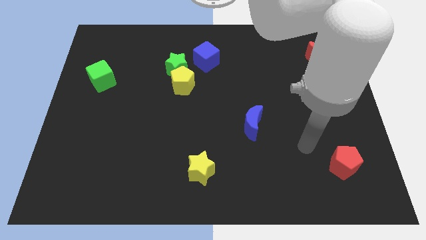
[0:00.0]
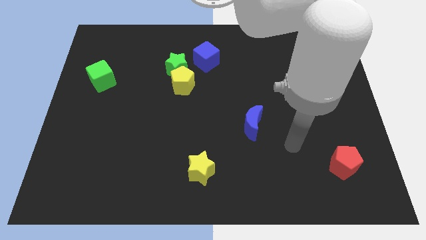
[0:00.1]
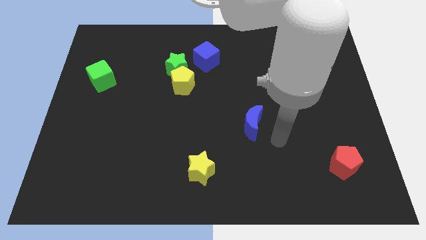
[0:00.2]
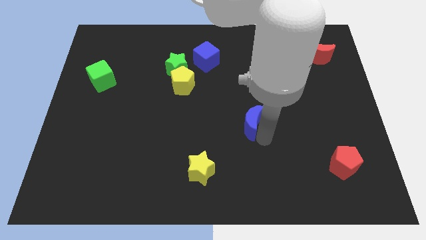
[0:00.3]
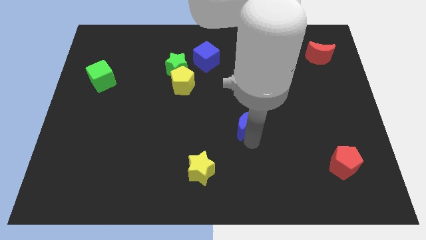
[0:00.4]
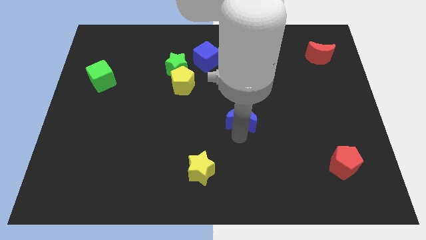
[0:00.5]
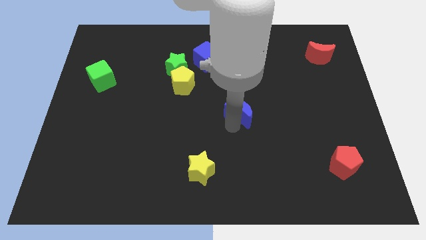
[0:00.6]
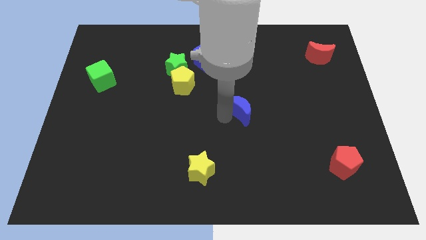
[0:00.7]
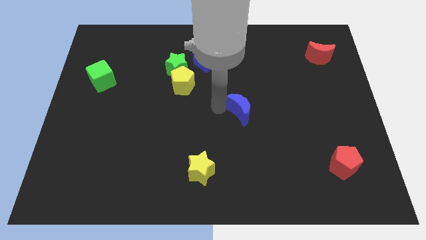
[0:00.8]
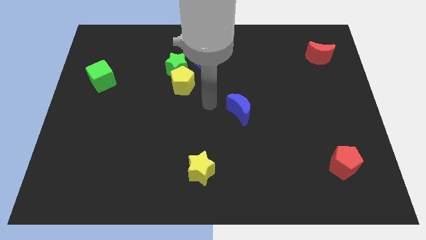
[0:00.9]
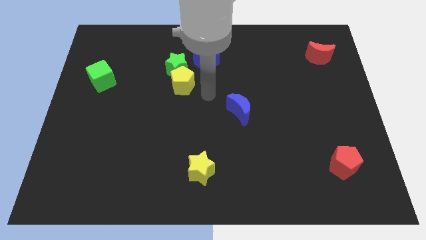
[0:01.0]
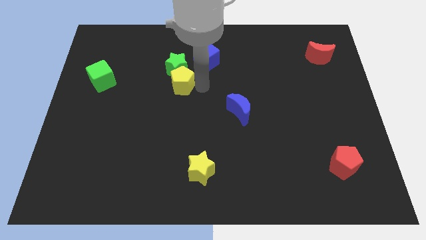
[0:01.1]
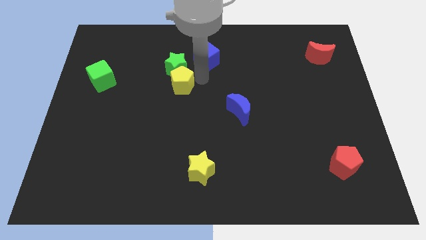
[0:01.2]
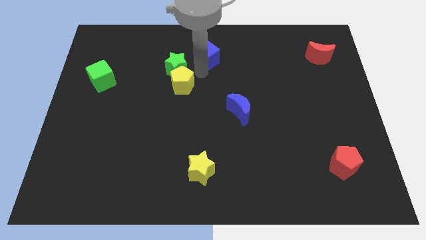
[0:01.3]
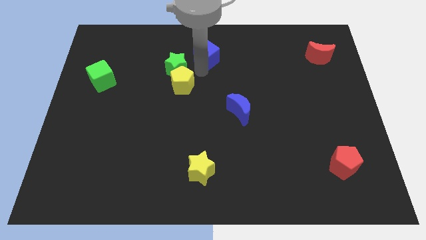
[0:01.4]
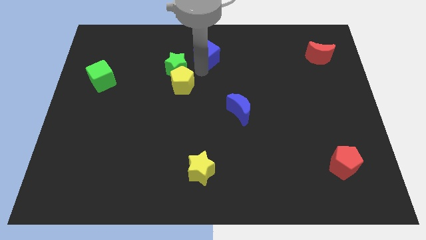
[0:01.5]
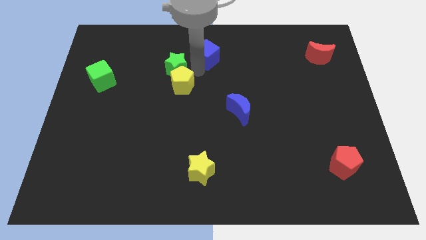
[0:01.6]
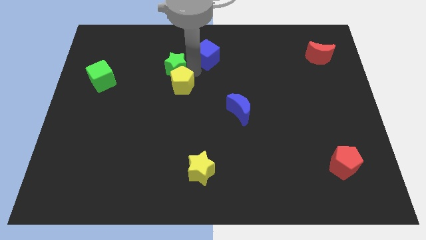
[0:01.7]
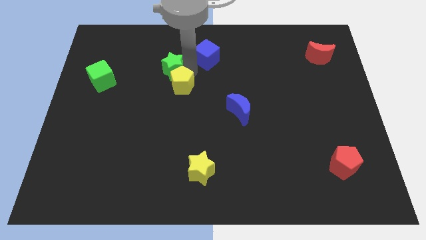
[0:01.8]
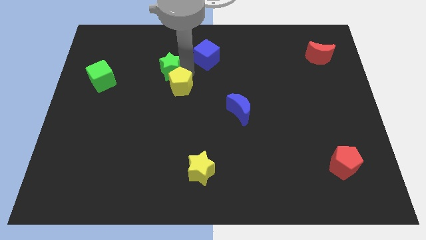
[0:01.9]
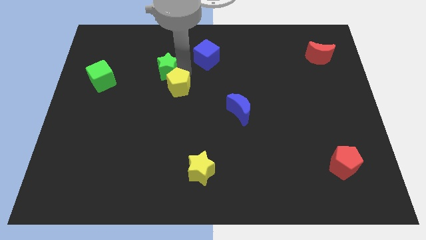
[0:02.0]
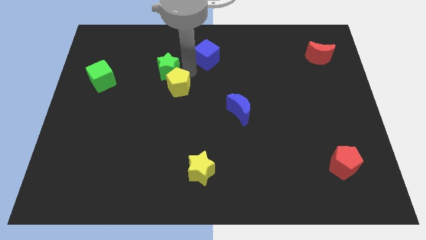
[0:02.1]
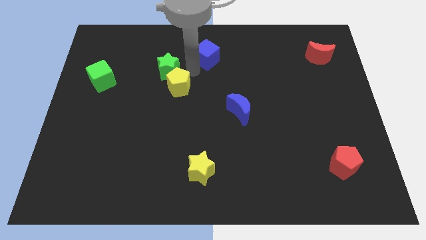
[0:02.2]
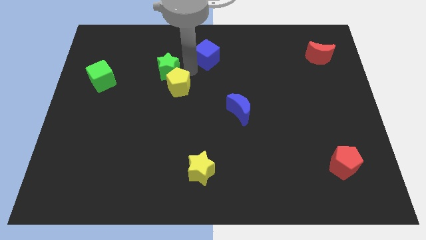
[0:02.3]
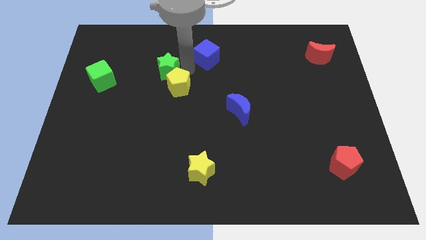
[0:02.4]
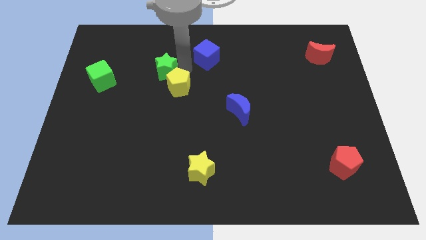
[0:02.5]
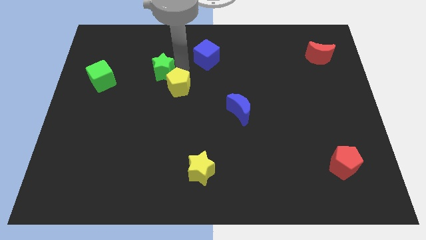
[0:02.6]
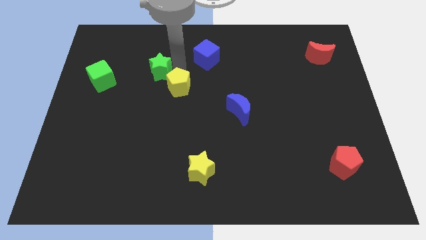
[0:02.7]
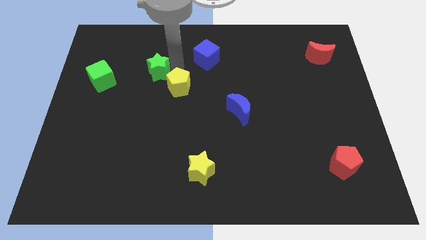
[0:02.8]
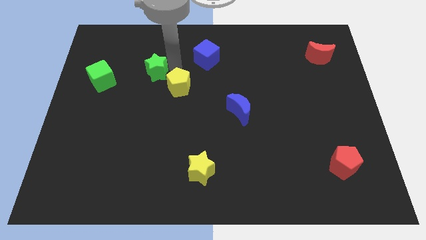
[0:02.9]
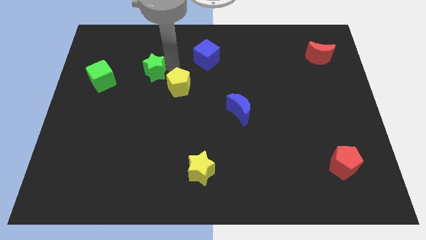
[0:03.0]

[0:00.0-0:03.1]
move the green star away from the yellow pentagon and blue cube

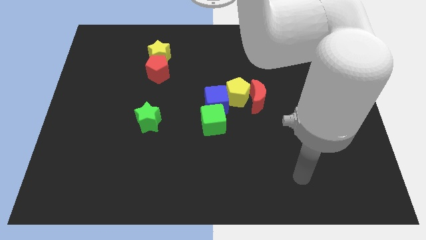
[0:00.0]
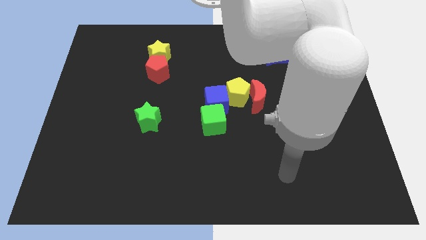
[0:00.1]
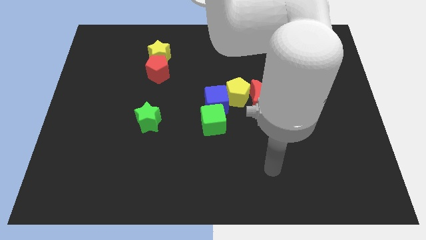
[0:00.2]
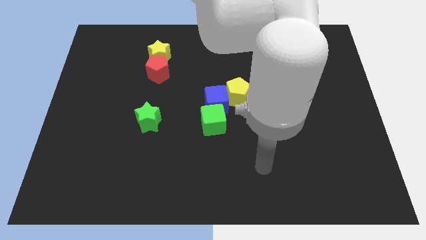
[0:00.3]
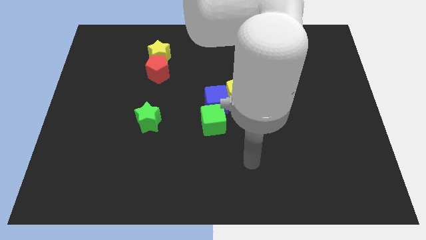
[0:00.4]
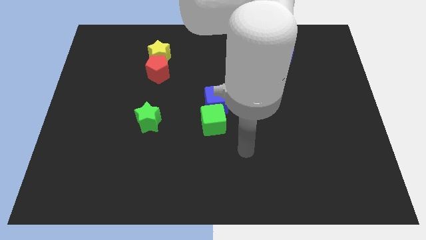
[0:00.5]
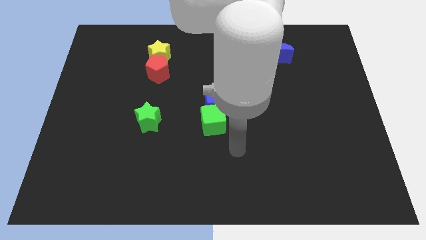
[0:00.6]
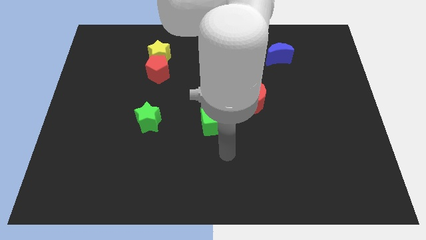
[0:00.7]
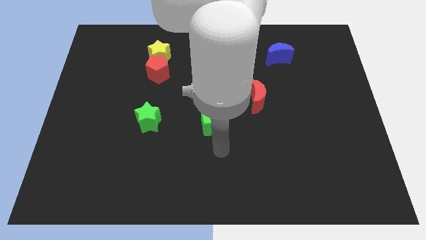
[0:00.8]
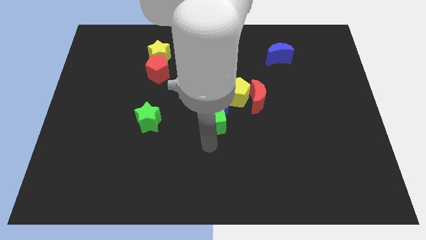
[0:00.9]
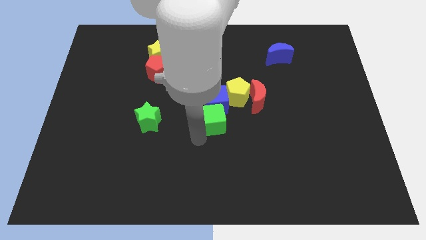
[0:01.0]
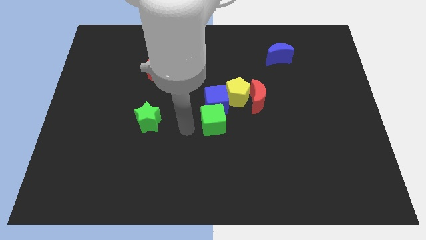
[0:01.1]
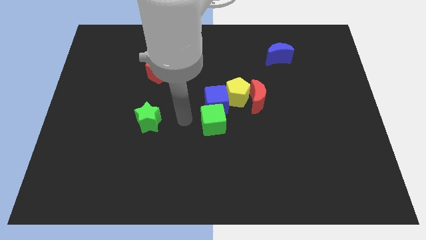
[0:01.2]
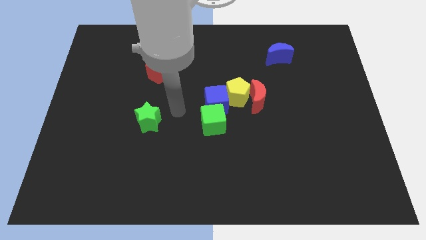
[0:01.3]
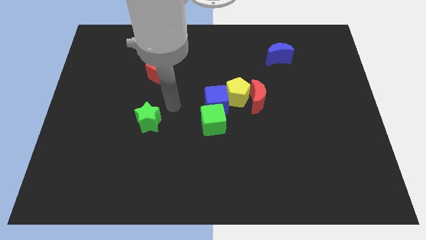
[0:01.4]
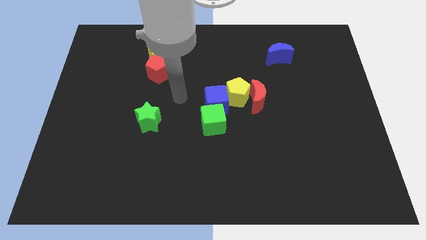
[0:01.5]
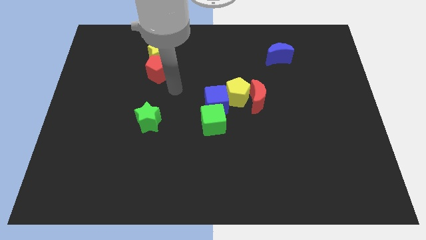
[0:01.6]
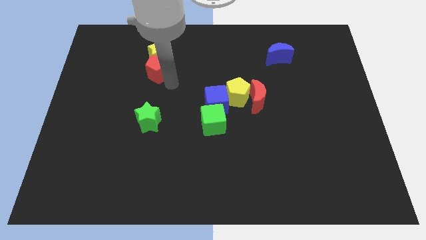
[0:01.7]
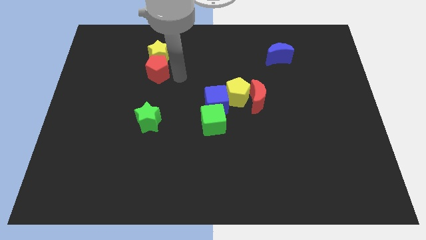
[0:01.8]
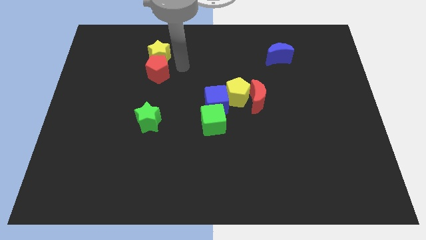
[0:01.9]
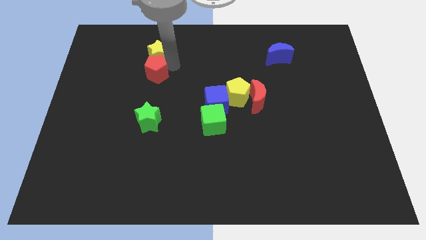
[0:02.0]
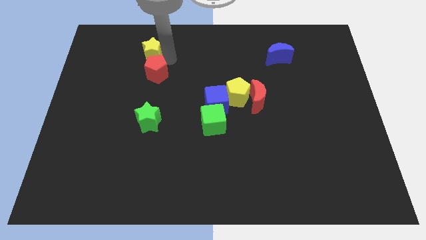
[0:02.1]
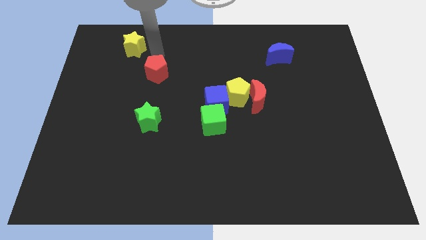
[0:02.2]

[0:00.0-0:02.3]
separate the red pentagon from the yellow star

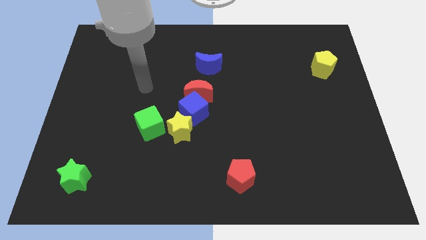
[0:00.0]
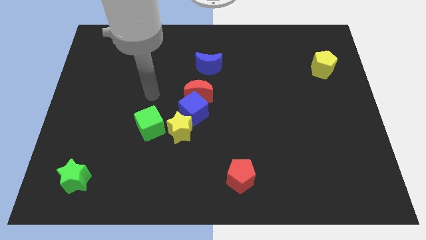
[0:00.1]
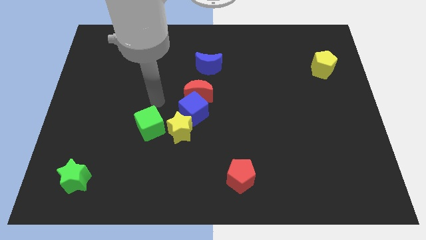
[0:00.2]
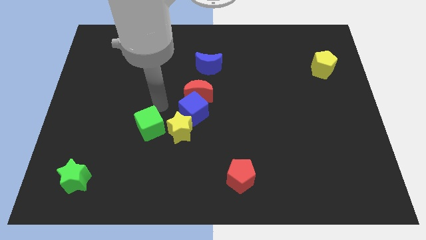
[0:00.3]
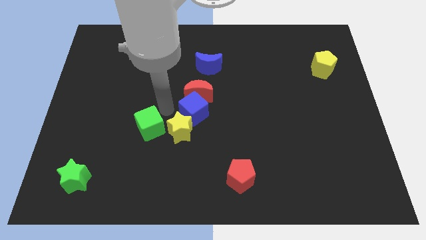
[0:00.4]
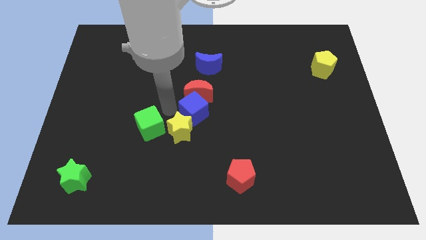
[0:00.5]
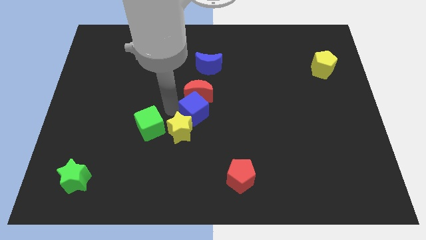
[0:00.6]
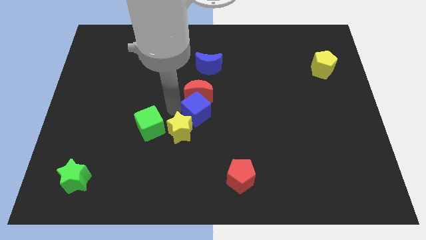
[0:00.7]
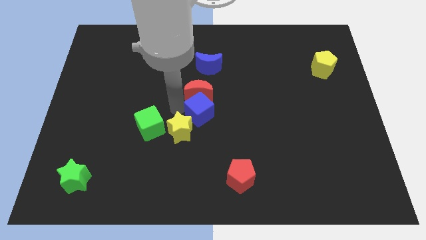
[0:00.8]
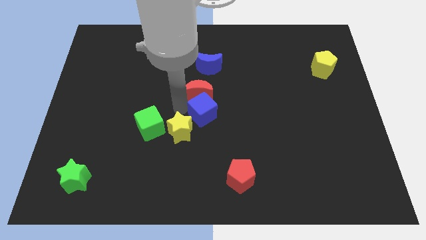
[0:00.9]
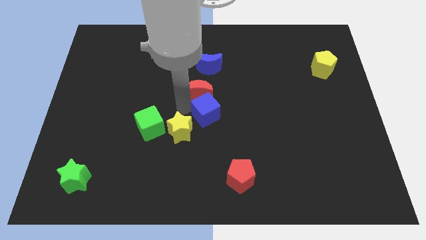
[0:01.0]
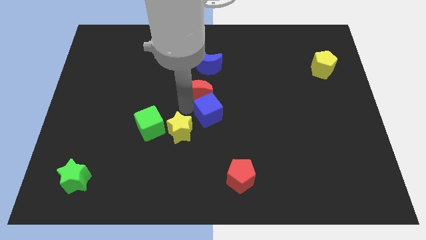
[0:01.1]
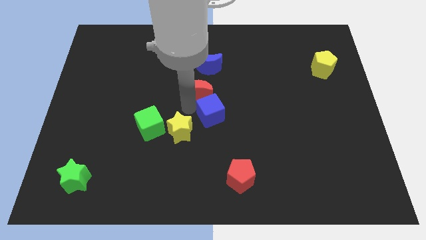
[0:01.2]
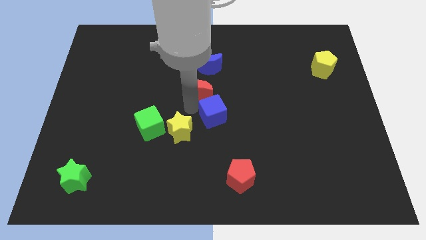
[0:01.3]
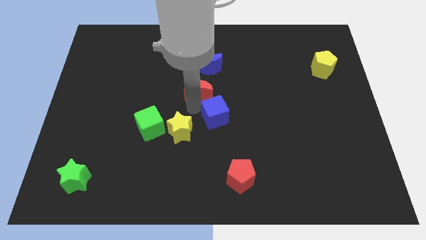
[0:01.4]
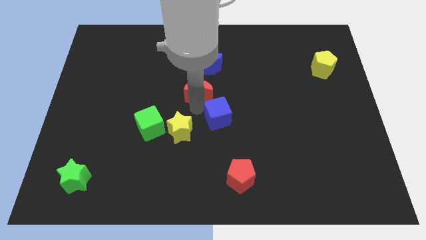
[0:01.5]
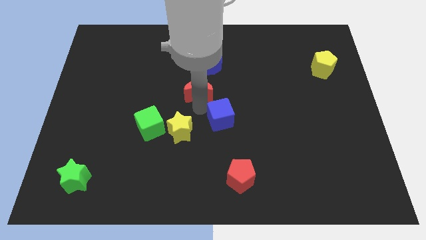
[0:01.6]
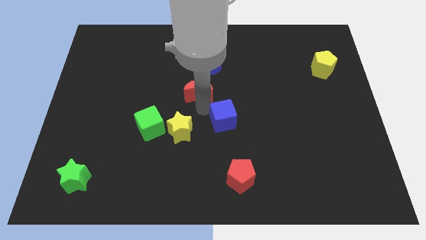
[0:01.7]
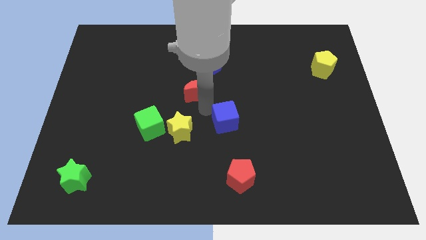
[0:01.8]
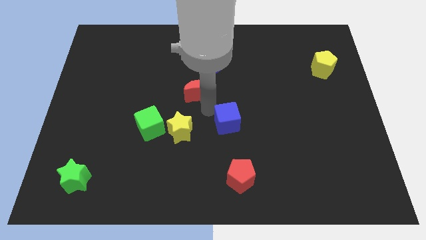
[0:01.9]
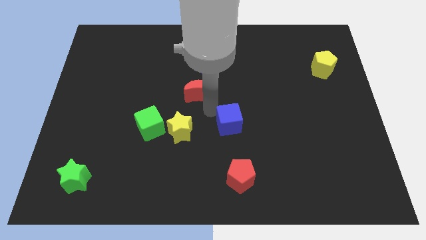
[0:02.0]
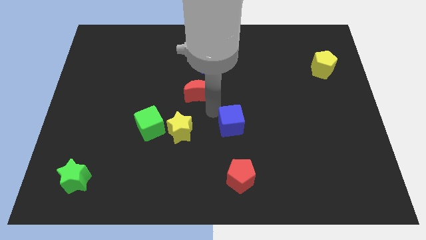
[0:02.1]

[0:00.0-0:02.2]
move the blue cube away from the red moon and yellow star

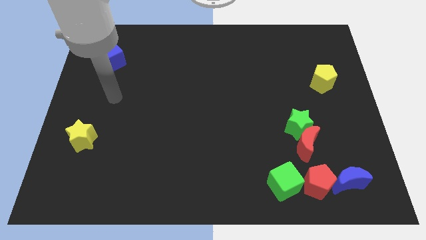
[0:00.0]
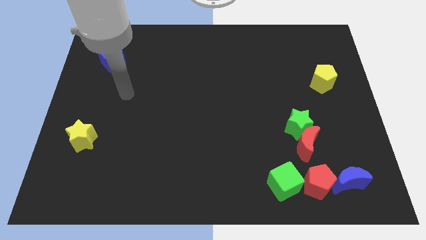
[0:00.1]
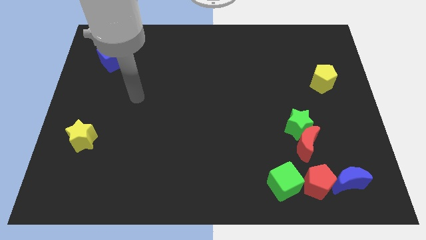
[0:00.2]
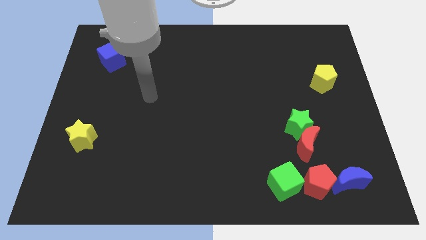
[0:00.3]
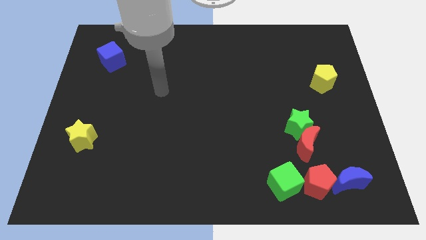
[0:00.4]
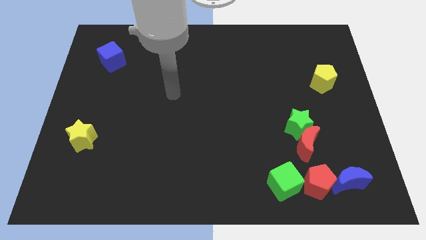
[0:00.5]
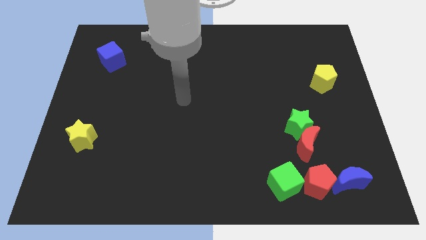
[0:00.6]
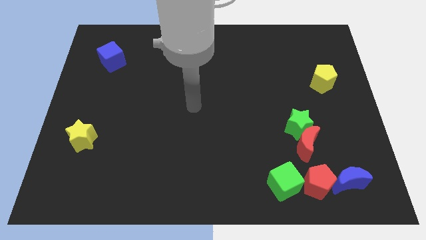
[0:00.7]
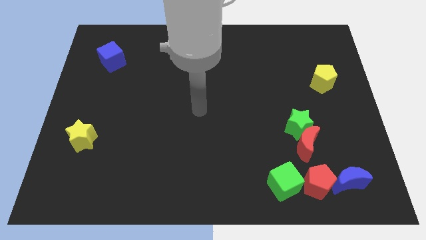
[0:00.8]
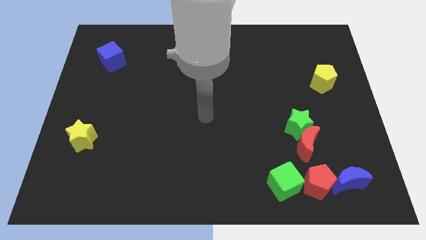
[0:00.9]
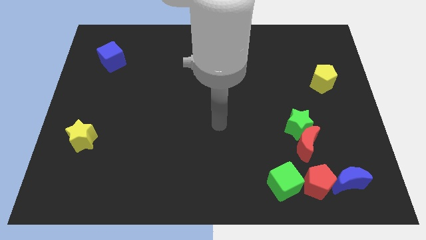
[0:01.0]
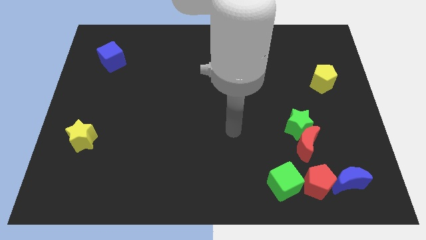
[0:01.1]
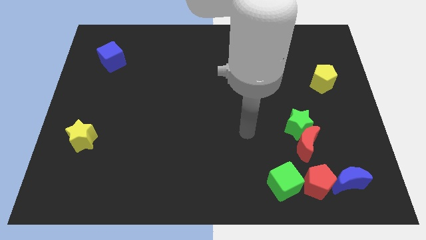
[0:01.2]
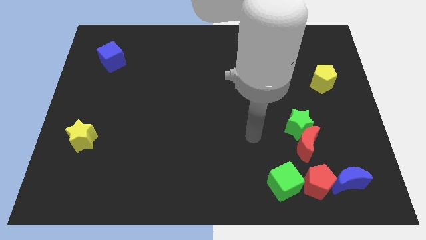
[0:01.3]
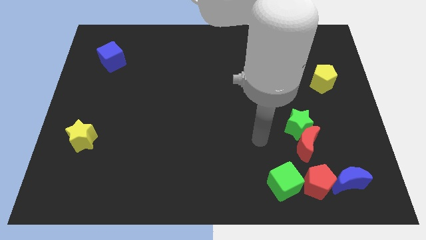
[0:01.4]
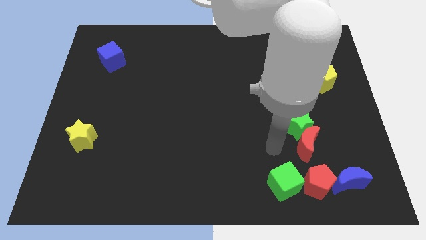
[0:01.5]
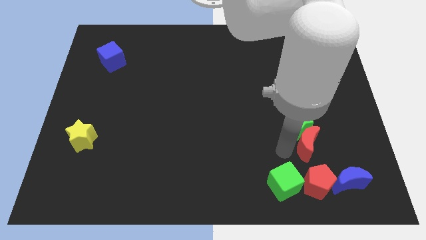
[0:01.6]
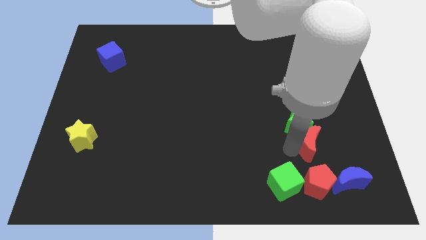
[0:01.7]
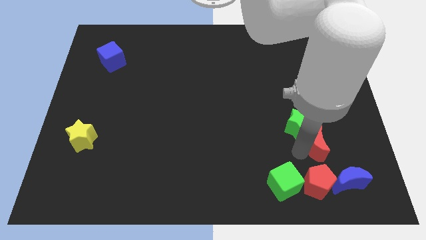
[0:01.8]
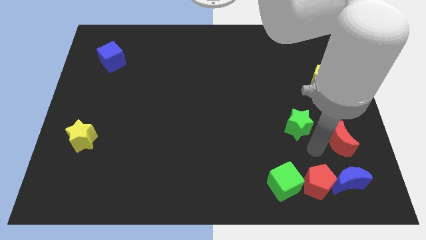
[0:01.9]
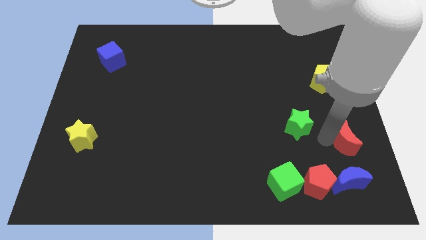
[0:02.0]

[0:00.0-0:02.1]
move the green star away from the red moon
